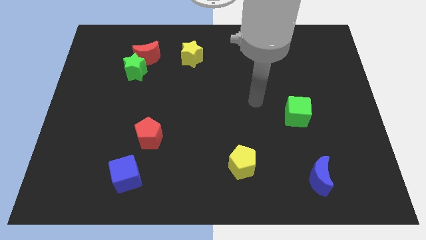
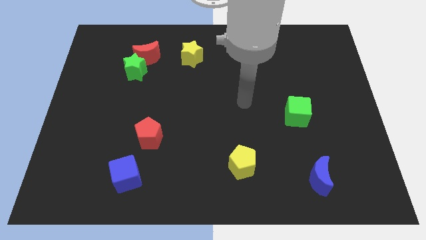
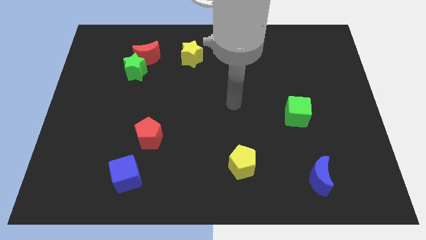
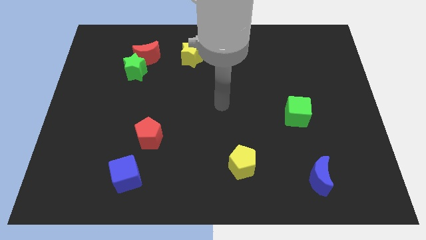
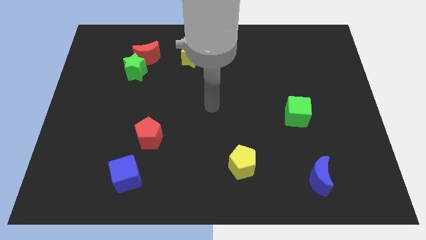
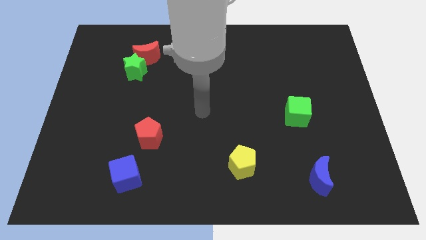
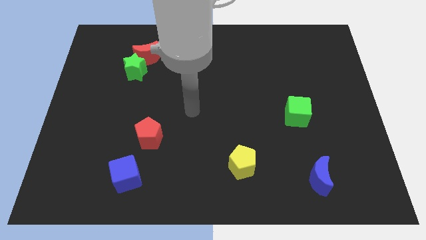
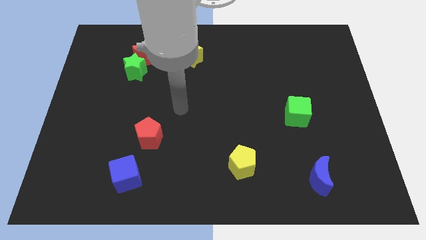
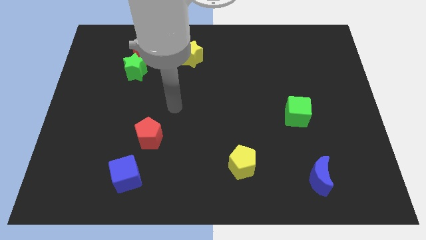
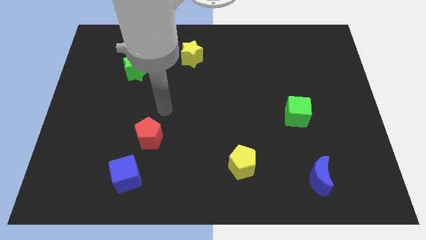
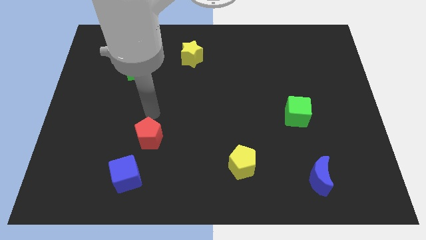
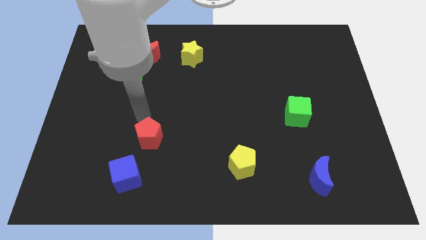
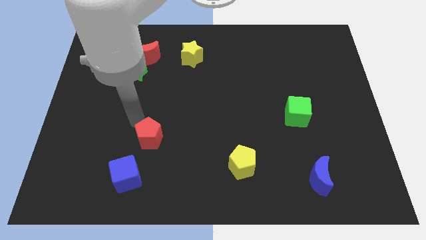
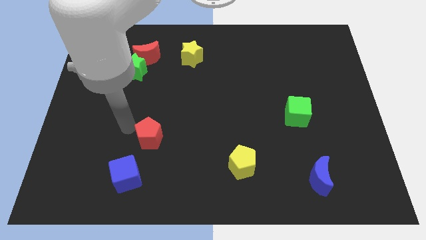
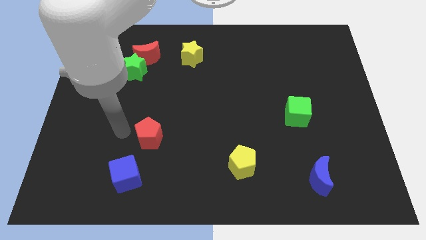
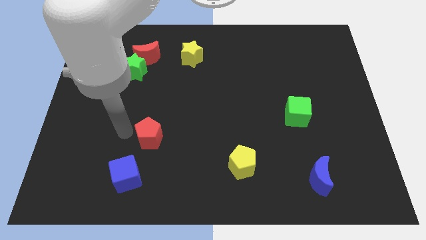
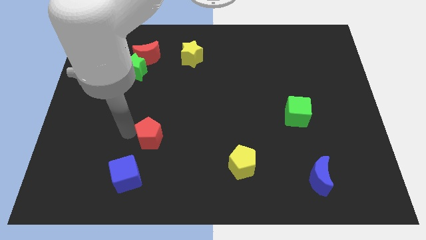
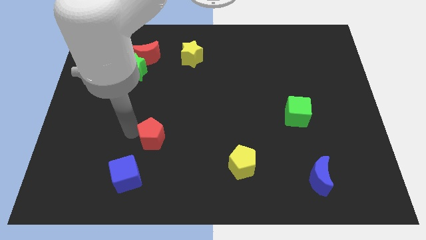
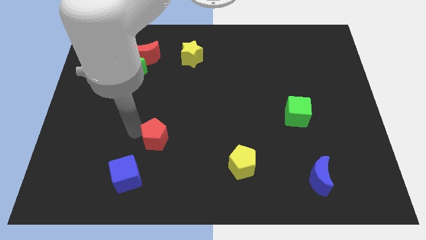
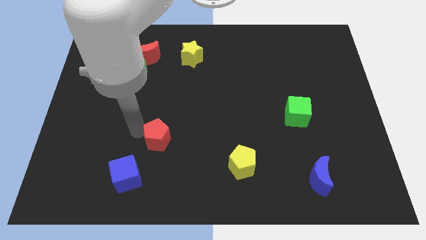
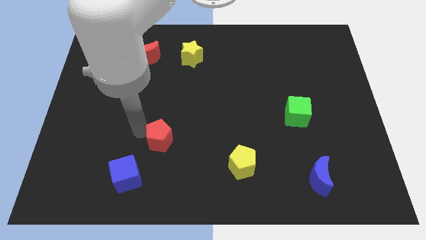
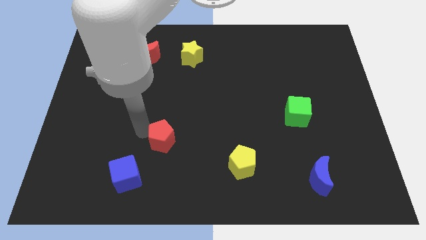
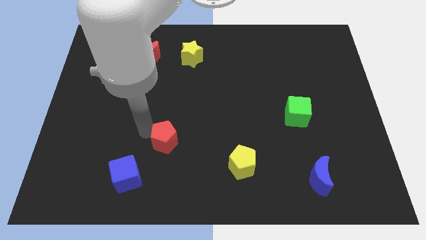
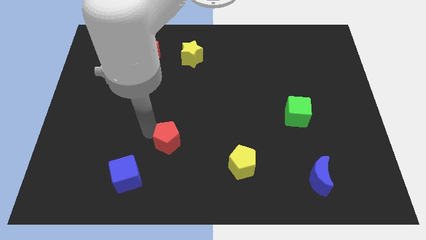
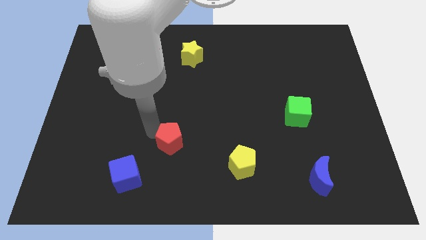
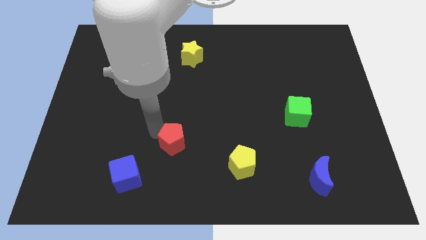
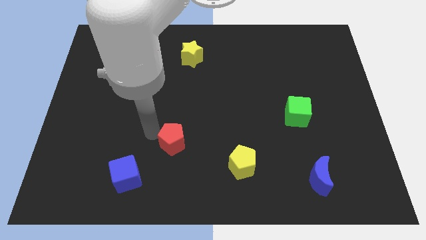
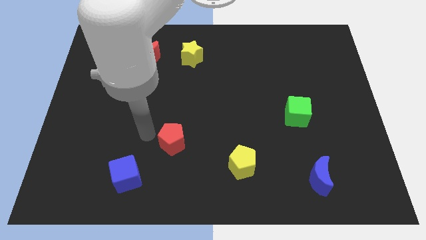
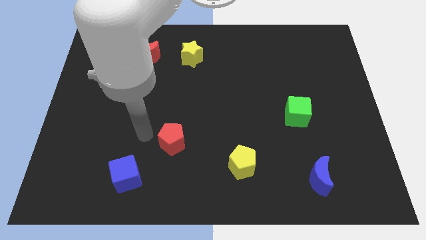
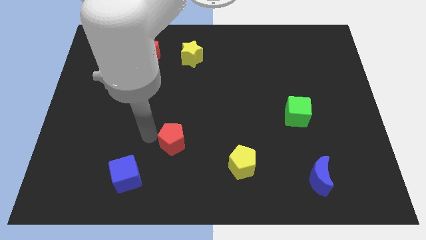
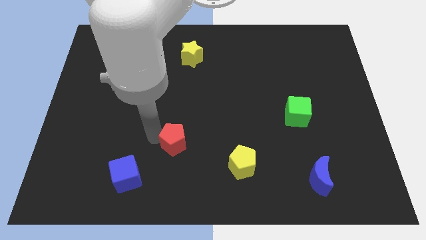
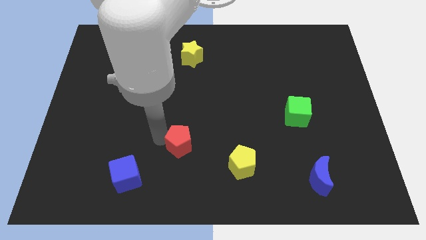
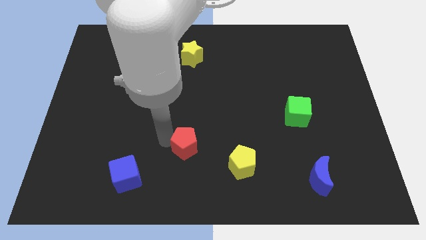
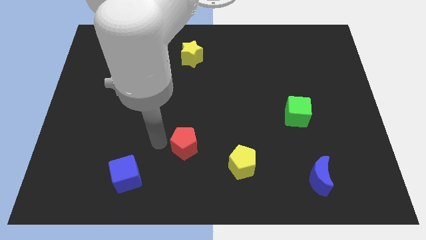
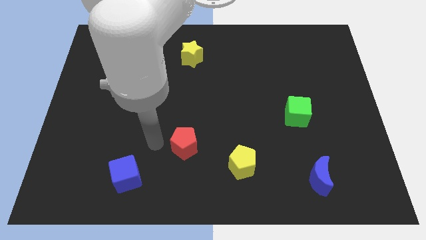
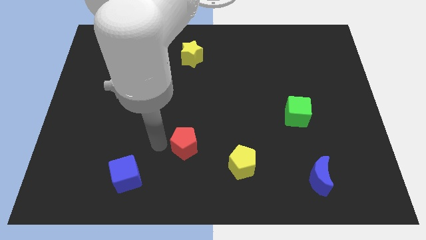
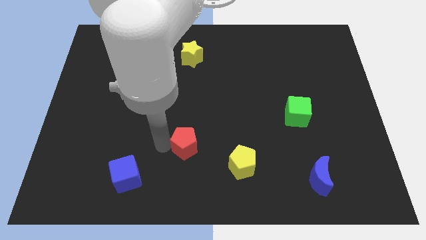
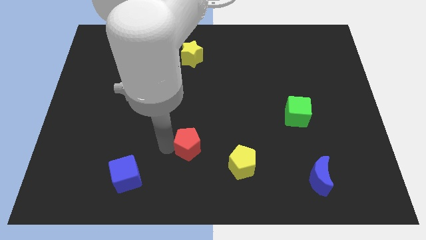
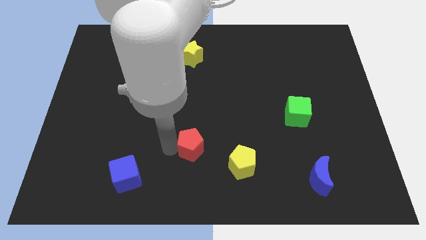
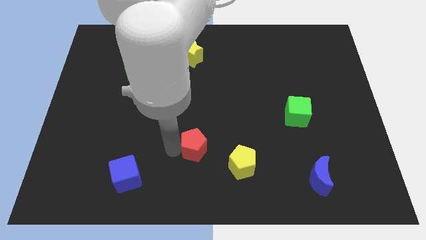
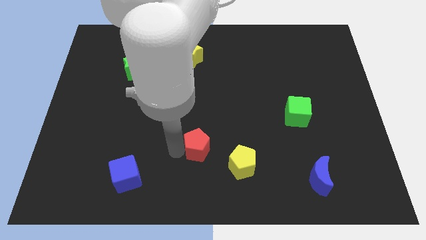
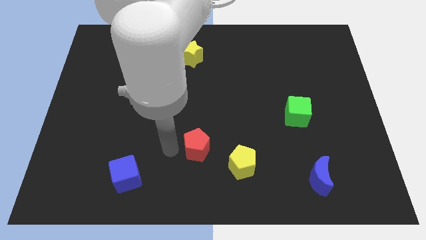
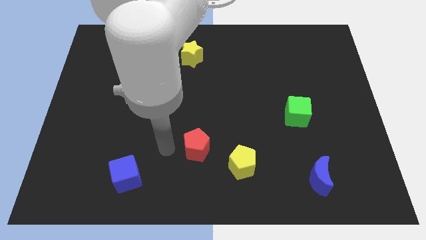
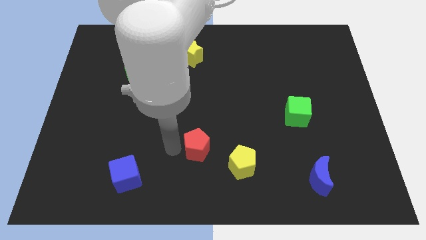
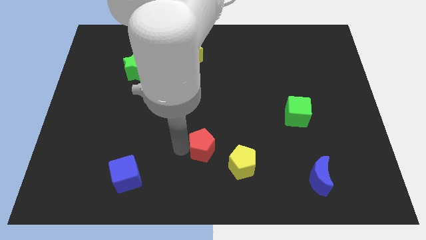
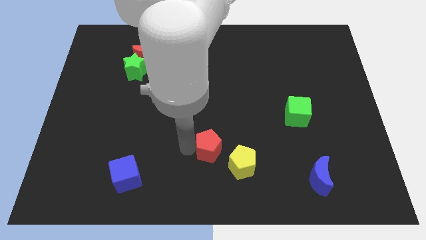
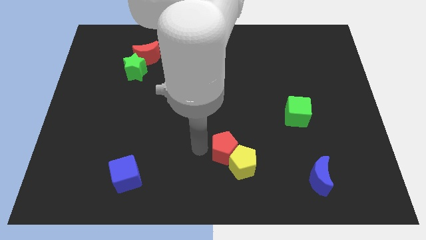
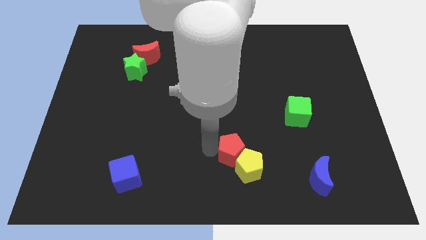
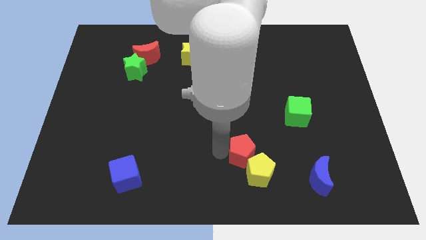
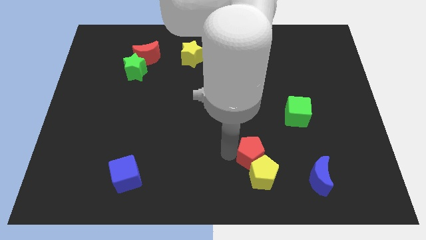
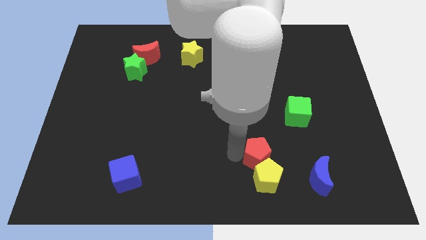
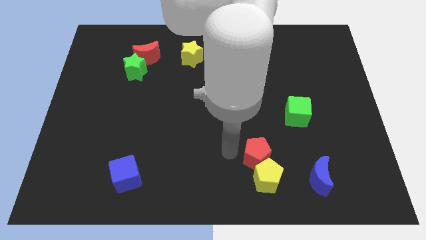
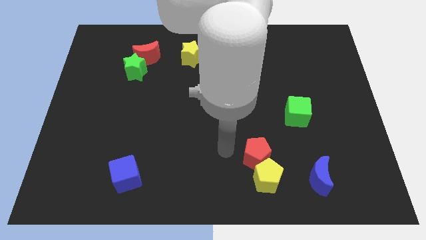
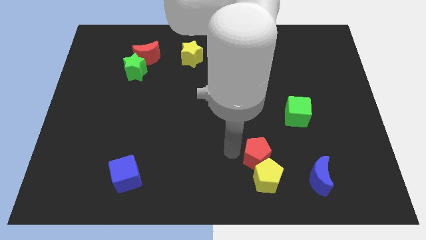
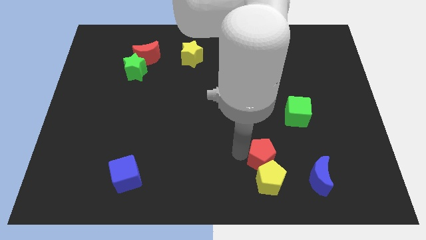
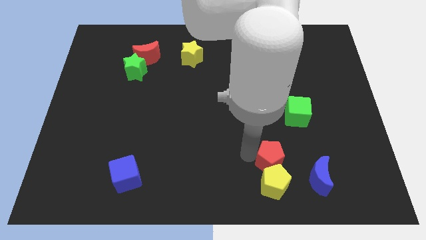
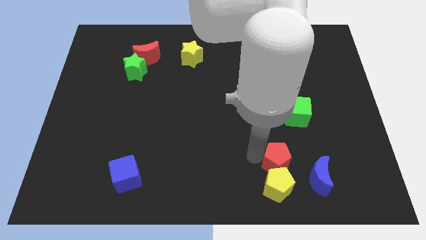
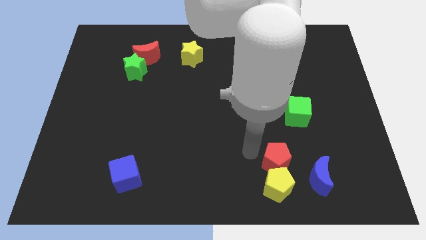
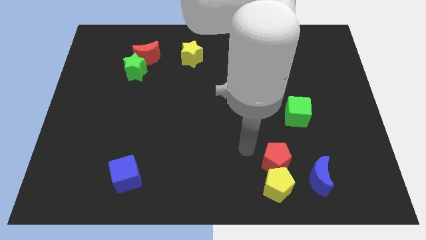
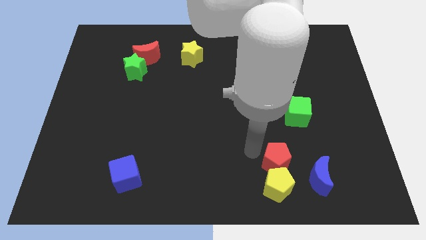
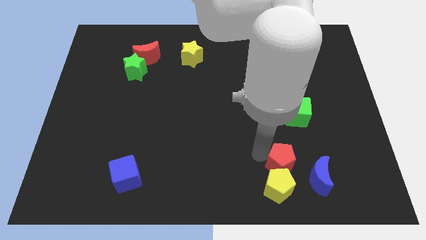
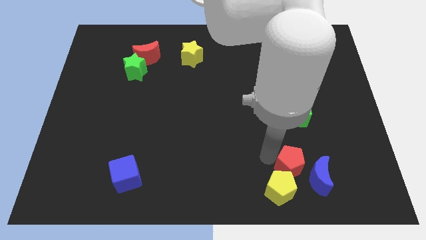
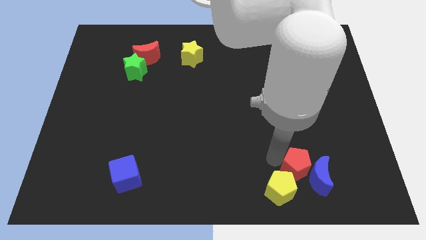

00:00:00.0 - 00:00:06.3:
move the red pentagon to the blue moon

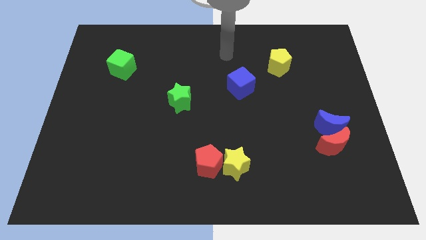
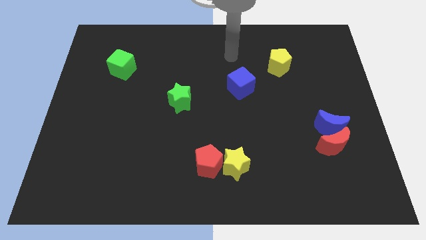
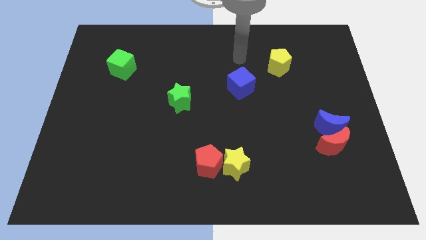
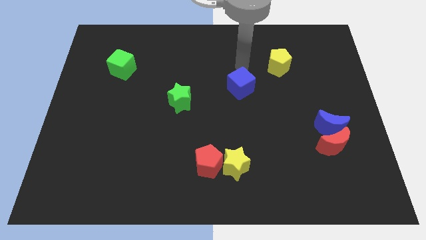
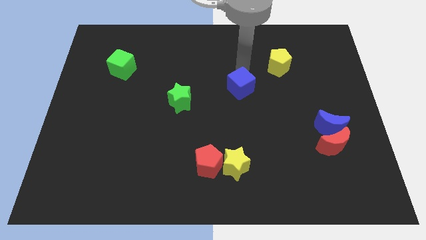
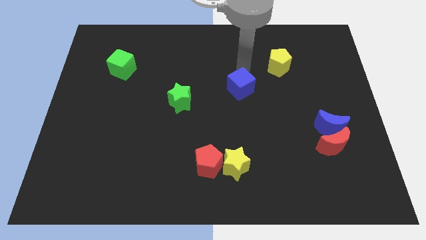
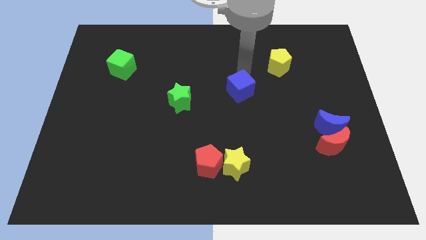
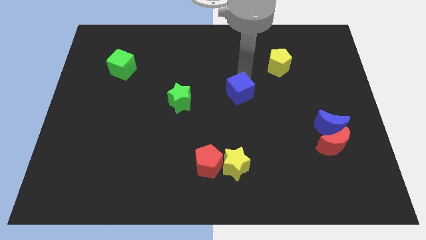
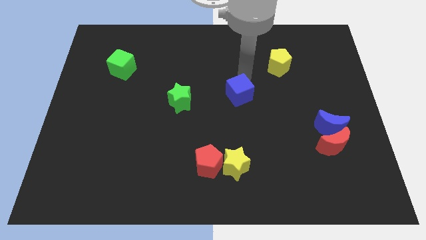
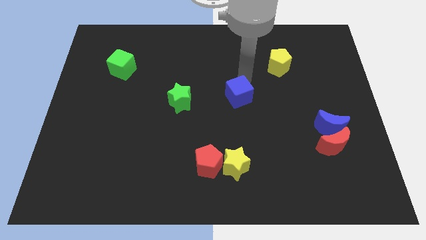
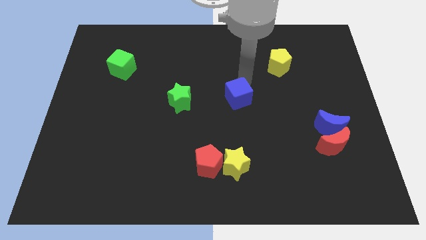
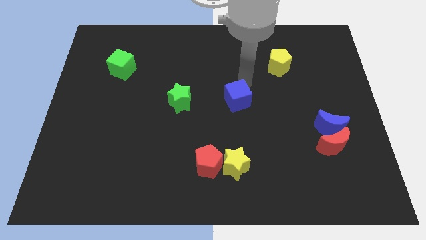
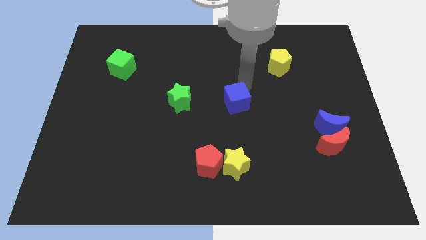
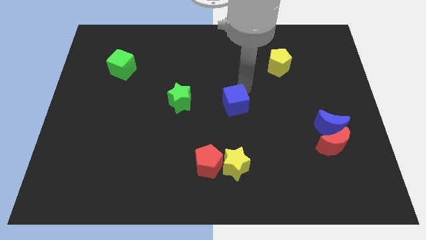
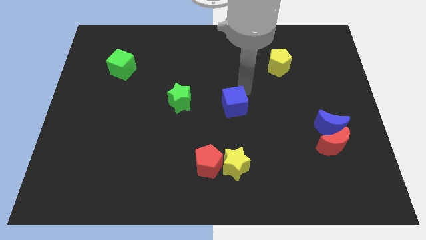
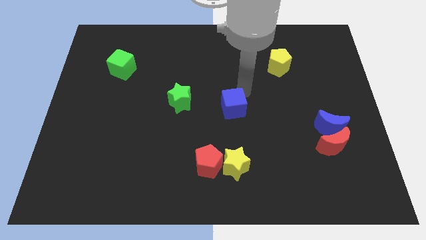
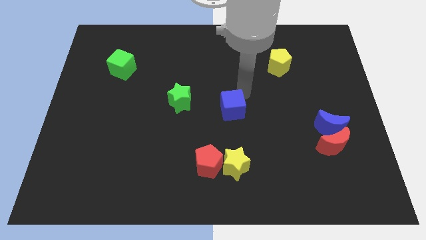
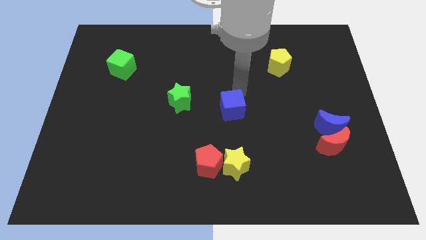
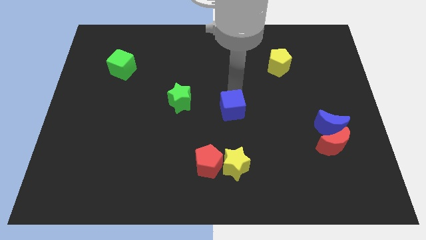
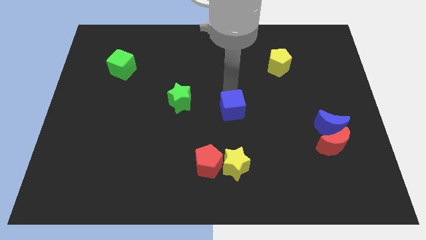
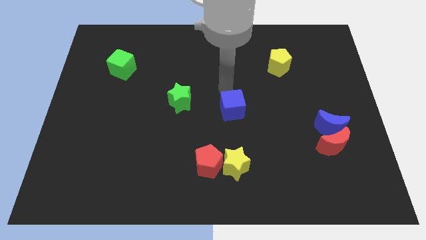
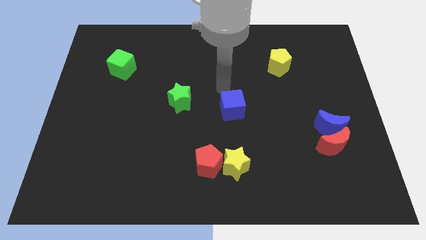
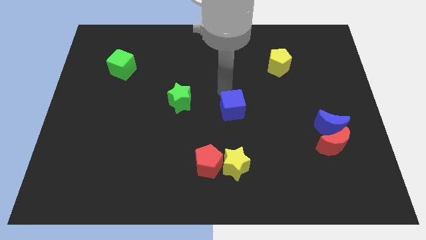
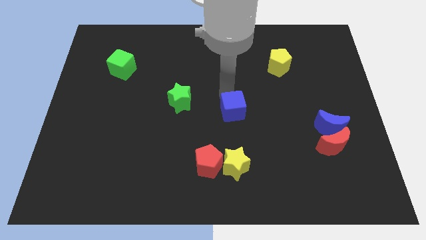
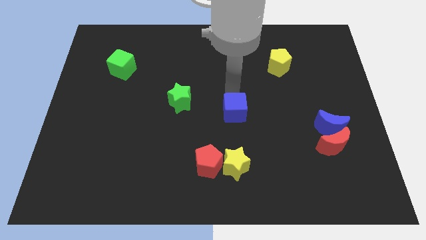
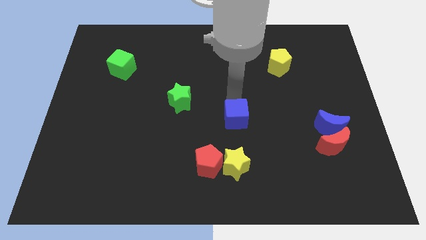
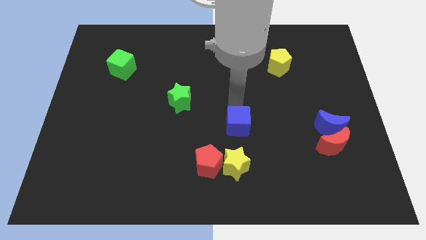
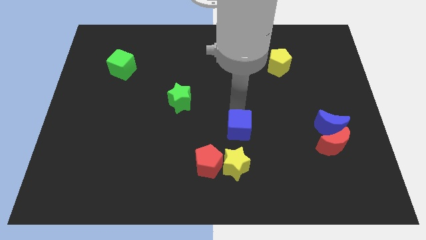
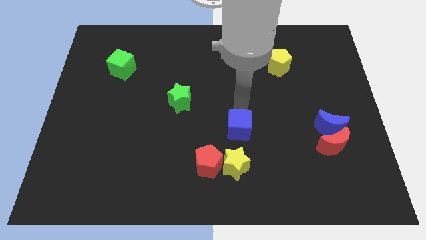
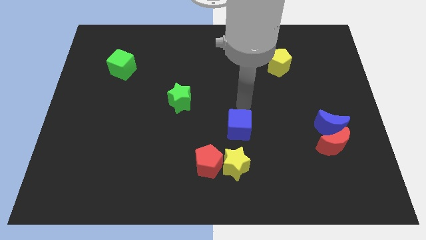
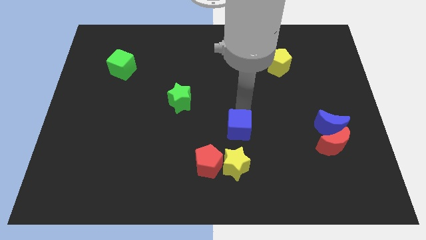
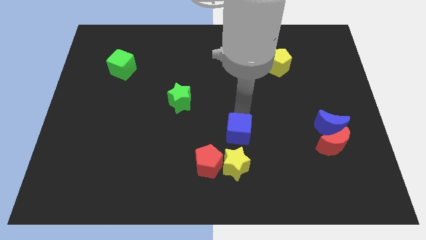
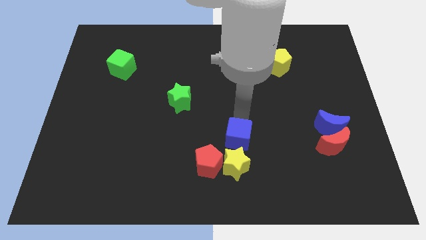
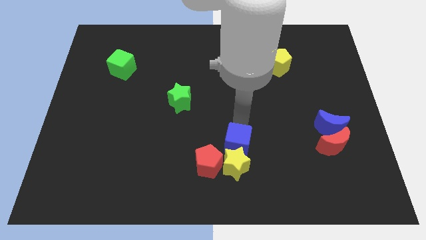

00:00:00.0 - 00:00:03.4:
put the blue cube close to the yellow star
